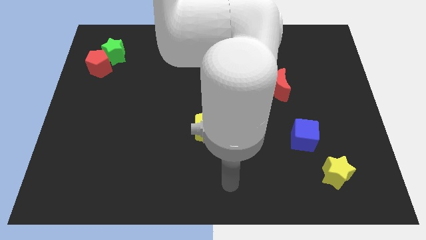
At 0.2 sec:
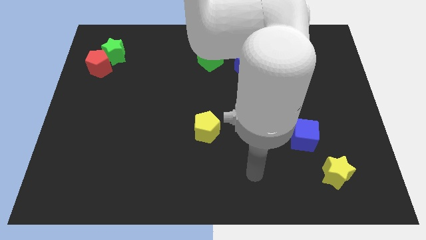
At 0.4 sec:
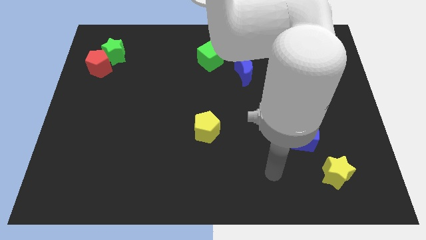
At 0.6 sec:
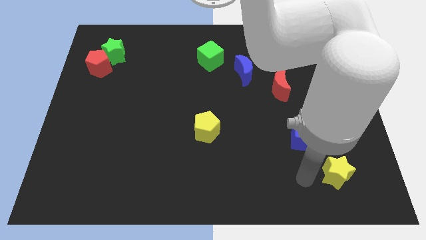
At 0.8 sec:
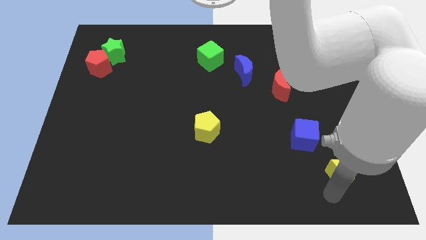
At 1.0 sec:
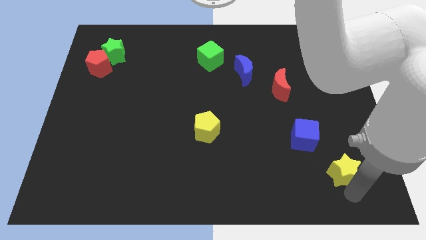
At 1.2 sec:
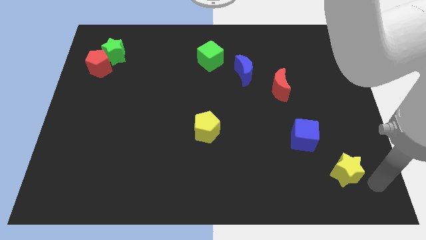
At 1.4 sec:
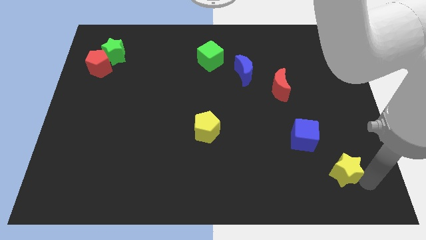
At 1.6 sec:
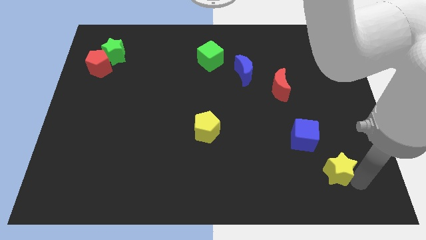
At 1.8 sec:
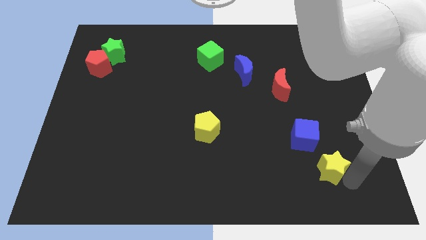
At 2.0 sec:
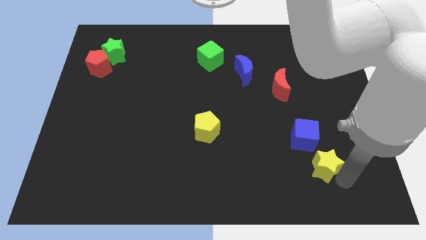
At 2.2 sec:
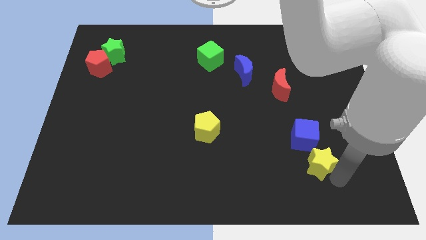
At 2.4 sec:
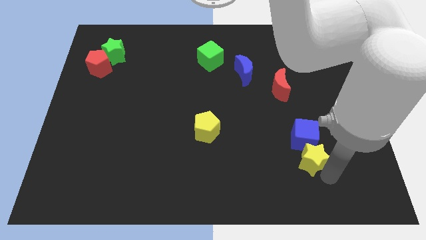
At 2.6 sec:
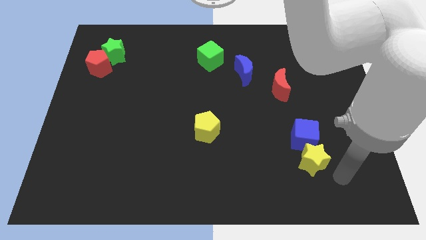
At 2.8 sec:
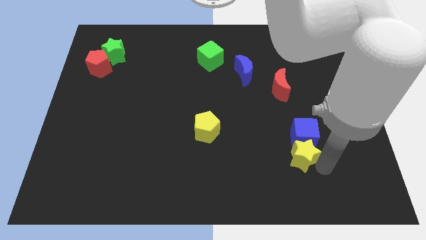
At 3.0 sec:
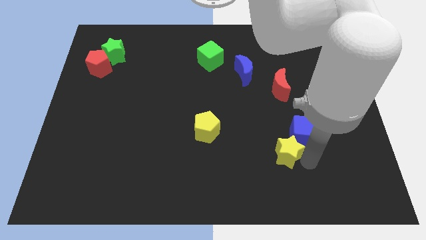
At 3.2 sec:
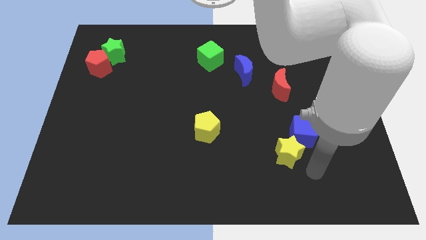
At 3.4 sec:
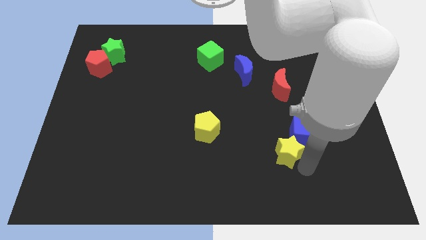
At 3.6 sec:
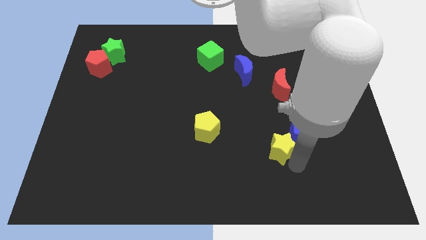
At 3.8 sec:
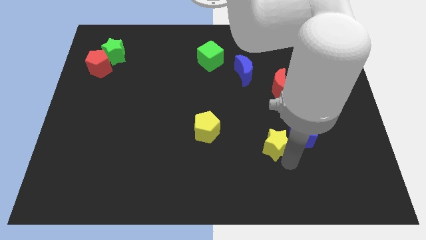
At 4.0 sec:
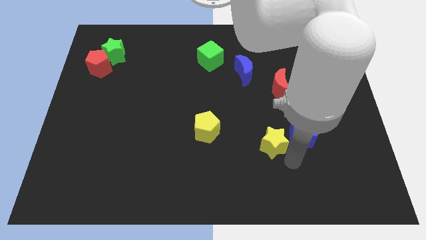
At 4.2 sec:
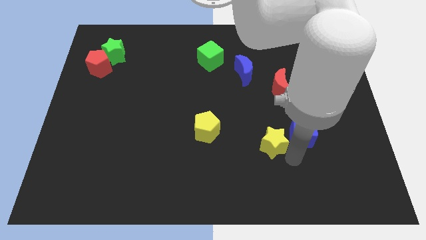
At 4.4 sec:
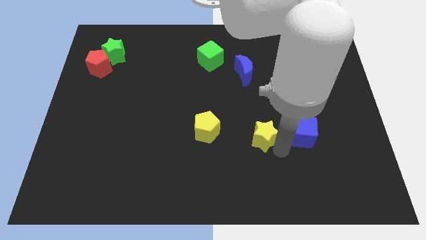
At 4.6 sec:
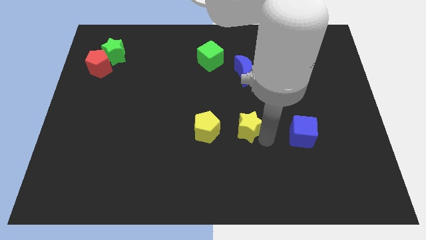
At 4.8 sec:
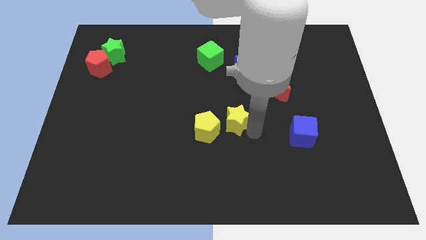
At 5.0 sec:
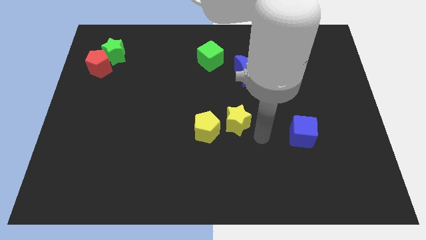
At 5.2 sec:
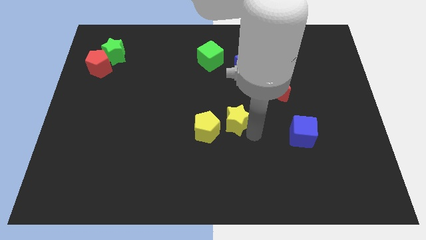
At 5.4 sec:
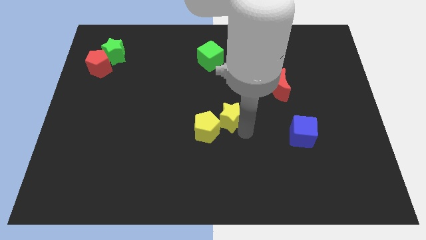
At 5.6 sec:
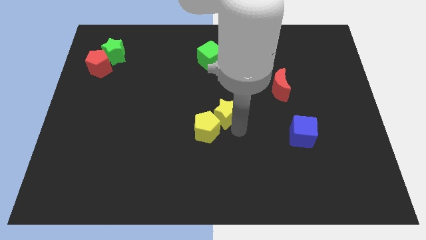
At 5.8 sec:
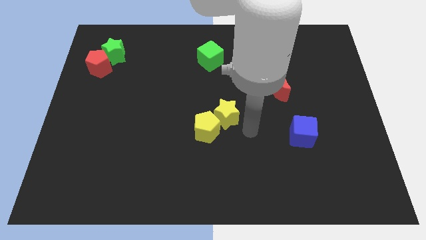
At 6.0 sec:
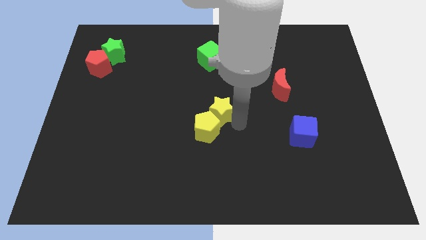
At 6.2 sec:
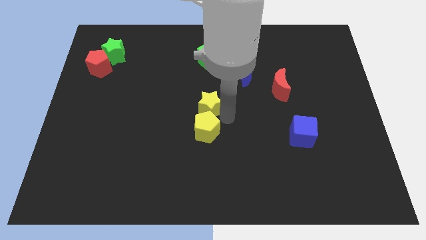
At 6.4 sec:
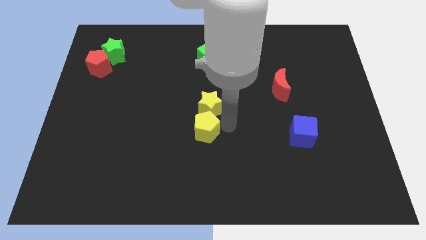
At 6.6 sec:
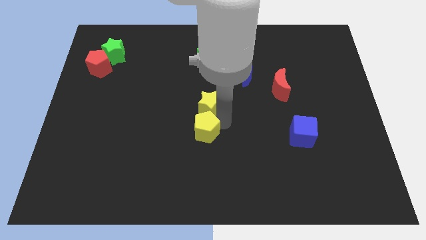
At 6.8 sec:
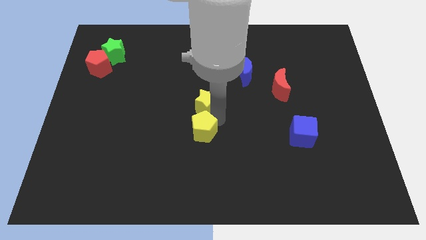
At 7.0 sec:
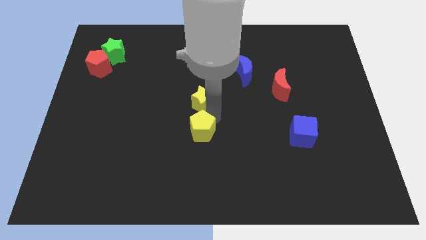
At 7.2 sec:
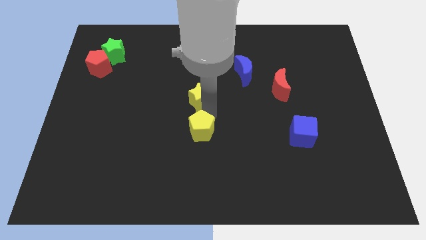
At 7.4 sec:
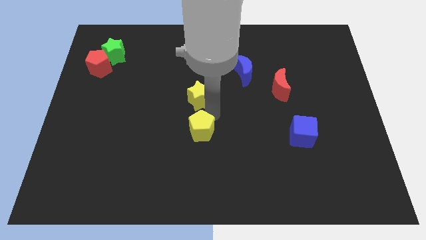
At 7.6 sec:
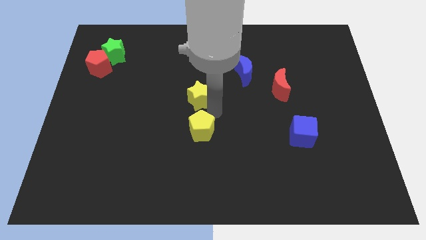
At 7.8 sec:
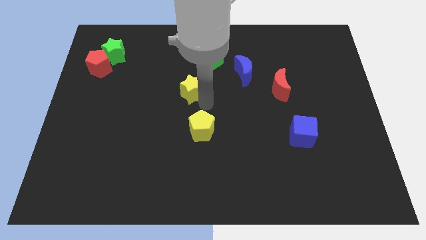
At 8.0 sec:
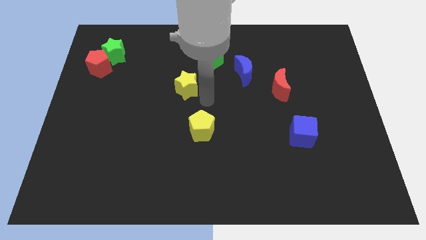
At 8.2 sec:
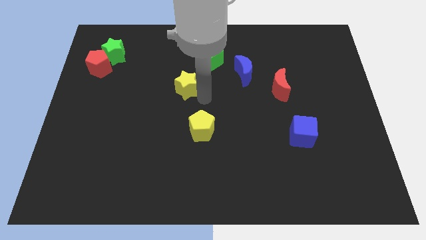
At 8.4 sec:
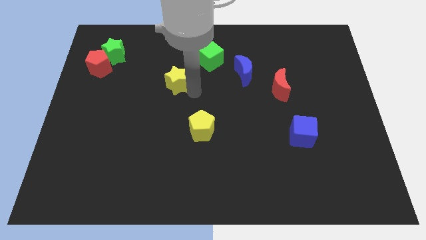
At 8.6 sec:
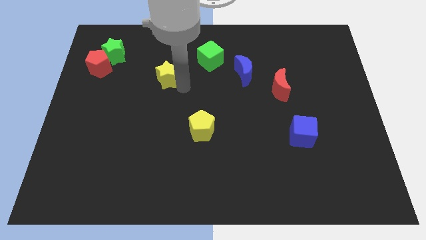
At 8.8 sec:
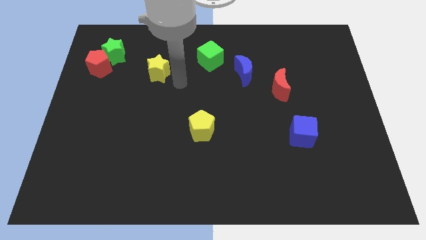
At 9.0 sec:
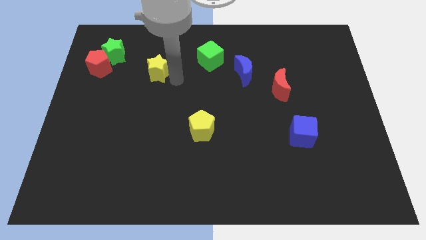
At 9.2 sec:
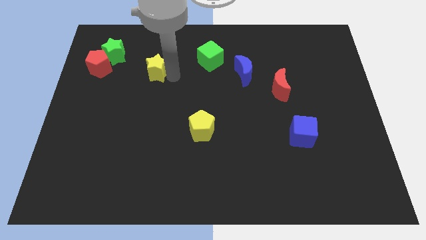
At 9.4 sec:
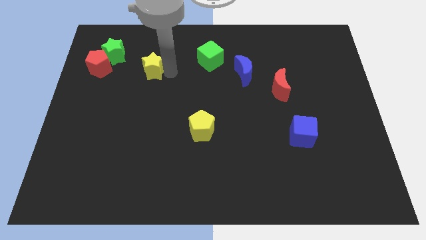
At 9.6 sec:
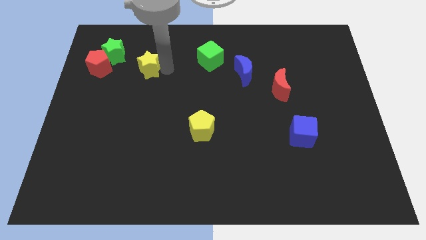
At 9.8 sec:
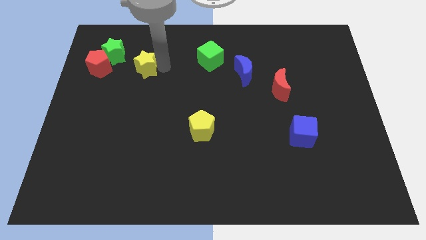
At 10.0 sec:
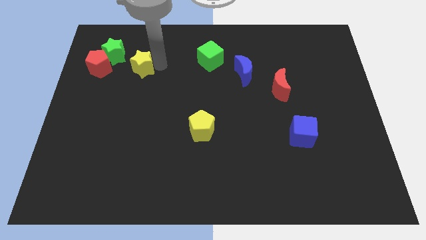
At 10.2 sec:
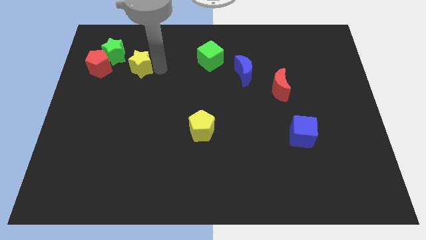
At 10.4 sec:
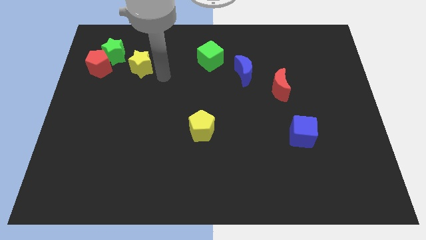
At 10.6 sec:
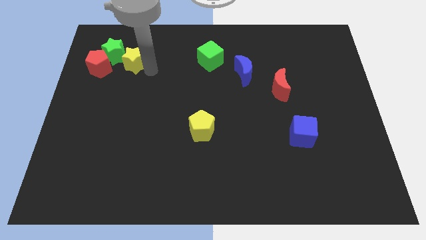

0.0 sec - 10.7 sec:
slide the yellow star close to the green star

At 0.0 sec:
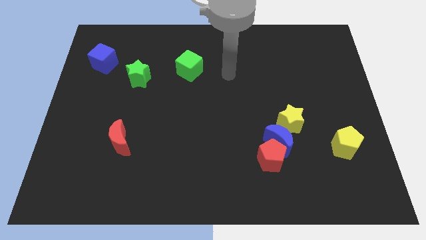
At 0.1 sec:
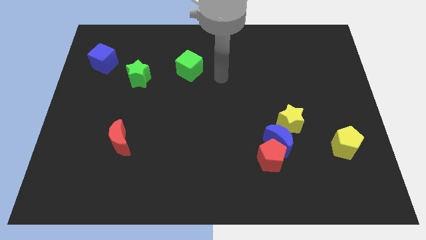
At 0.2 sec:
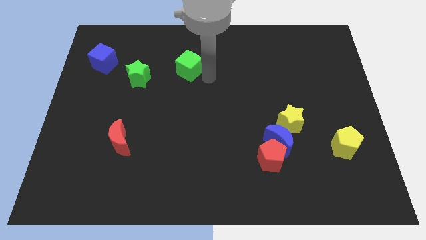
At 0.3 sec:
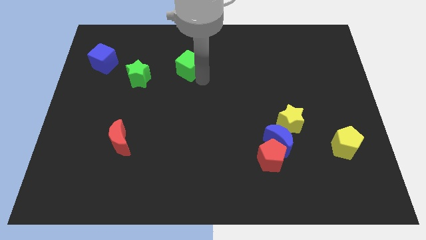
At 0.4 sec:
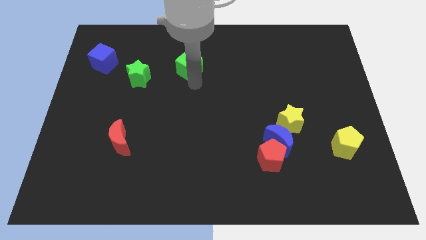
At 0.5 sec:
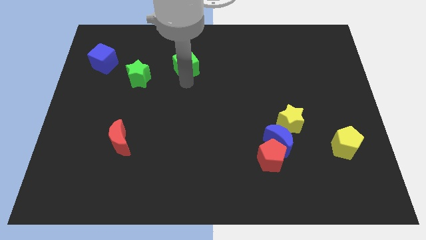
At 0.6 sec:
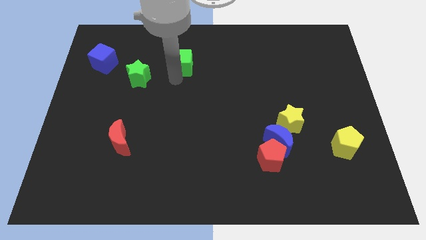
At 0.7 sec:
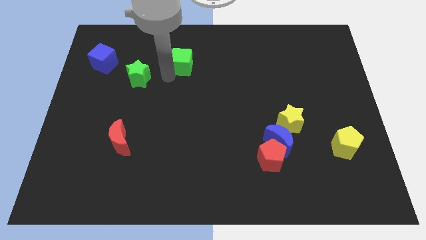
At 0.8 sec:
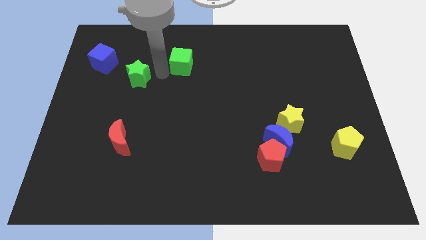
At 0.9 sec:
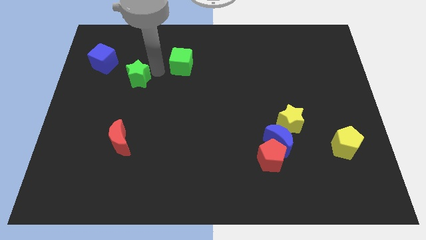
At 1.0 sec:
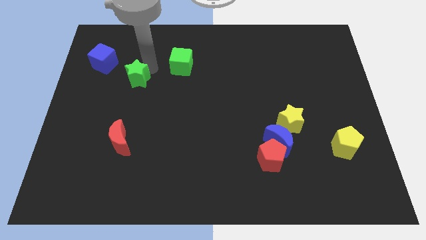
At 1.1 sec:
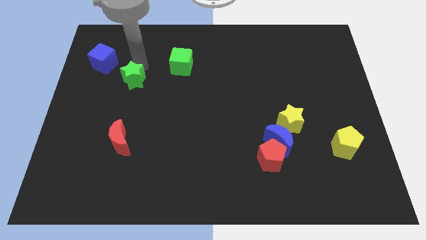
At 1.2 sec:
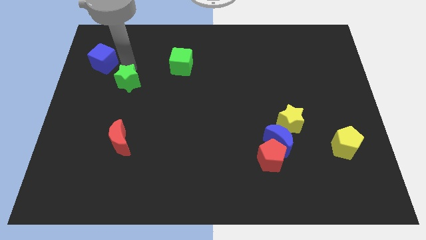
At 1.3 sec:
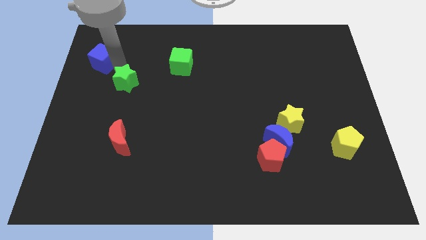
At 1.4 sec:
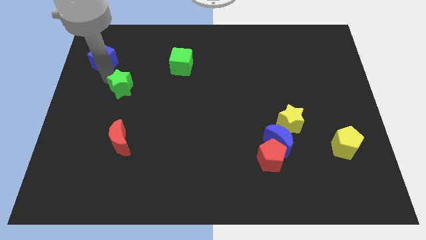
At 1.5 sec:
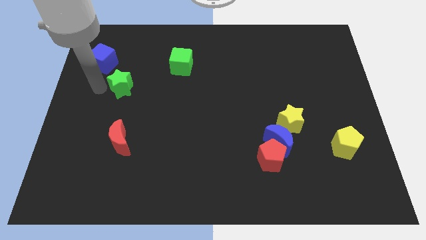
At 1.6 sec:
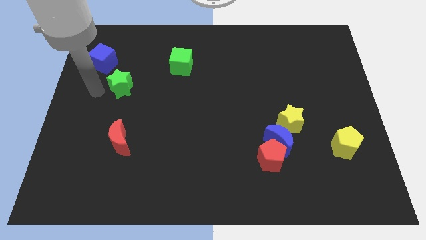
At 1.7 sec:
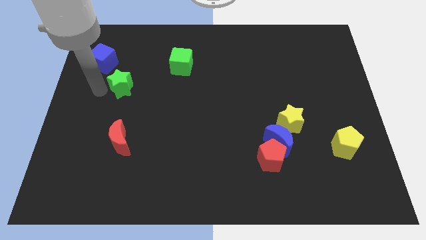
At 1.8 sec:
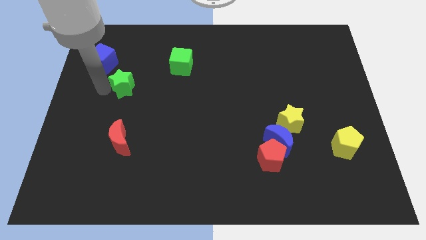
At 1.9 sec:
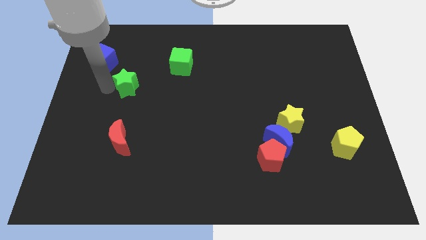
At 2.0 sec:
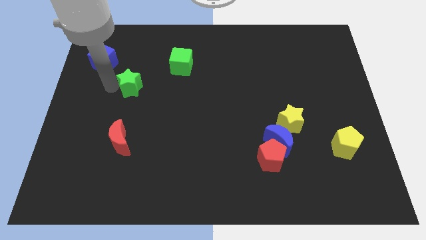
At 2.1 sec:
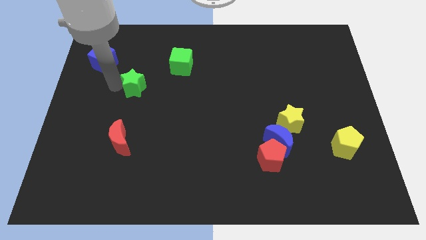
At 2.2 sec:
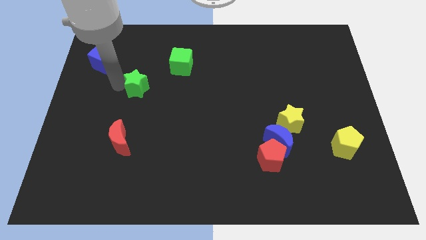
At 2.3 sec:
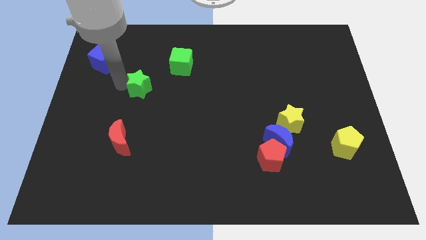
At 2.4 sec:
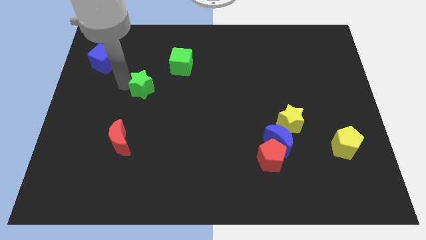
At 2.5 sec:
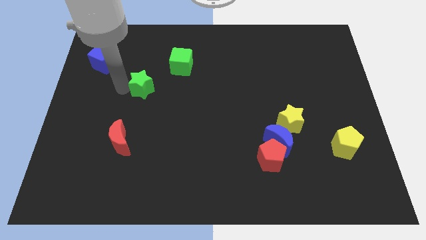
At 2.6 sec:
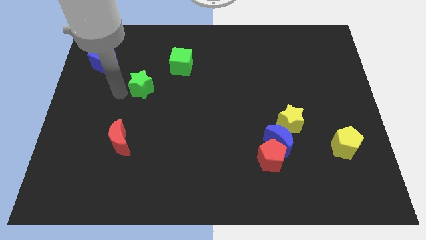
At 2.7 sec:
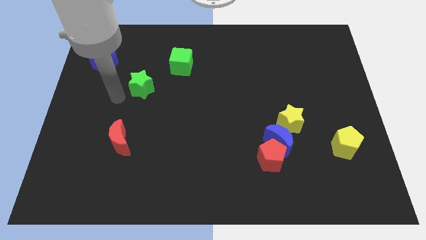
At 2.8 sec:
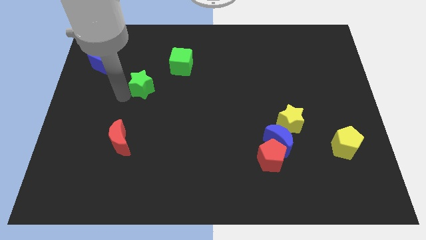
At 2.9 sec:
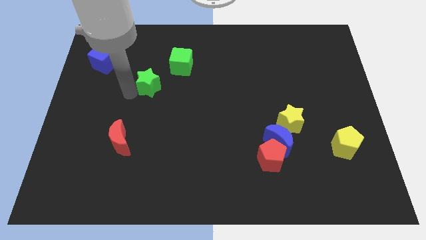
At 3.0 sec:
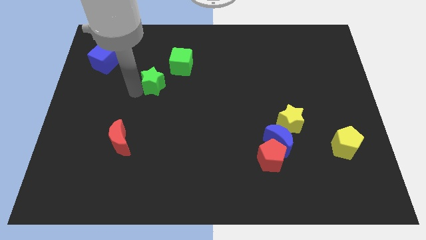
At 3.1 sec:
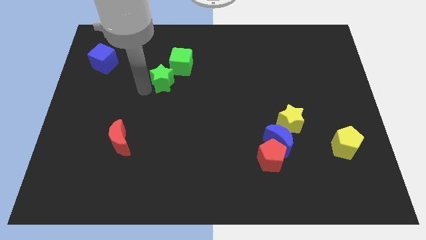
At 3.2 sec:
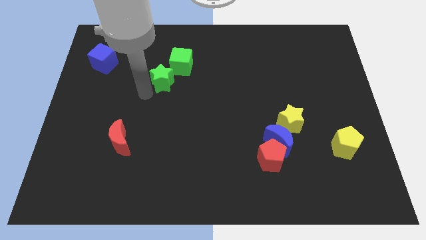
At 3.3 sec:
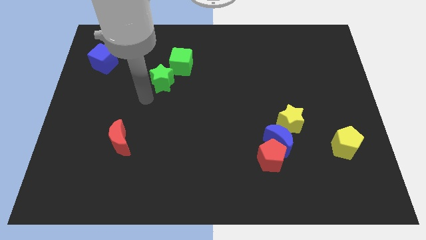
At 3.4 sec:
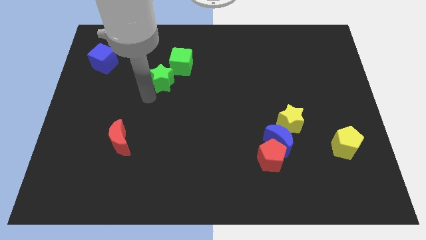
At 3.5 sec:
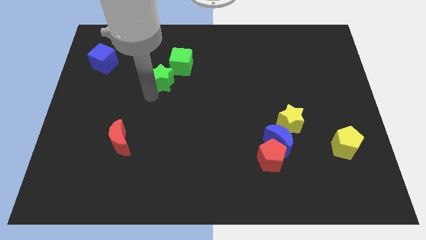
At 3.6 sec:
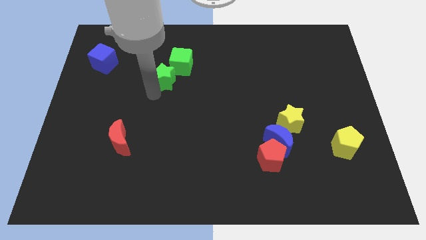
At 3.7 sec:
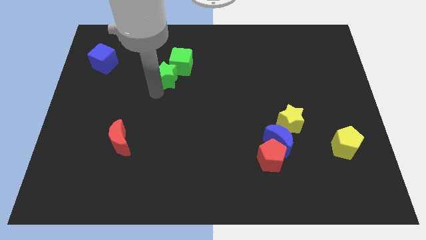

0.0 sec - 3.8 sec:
push the green star to the green cube
